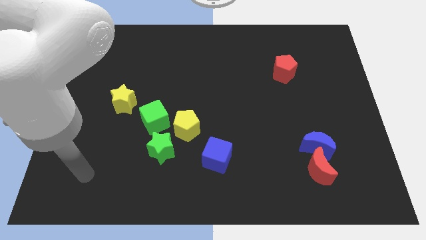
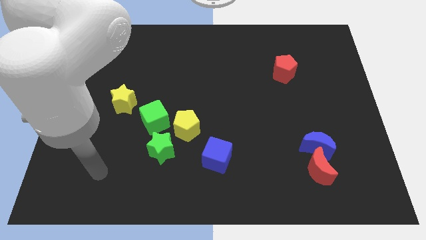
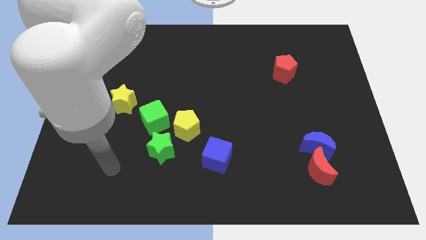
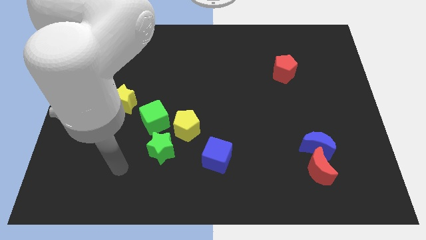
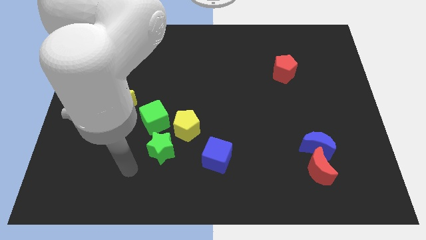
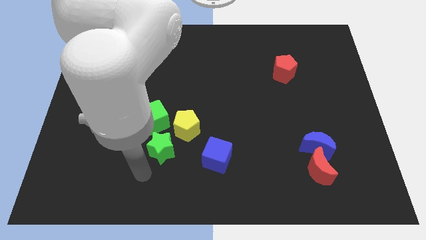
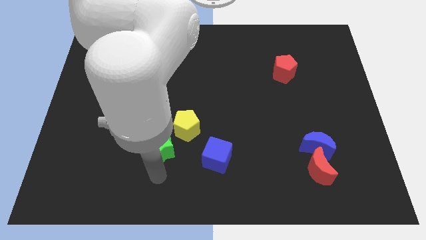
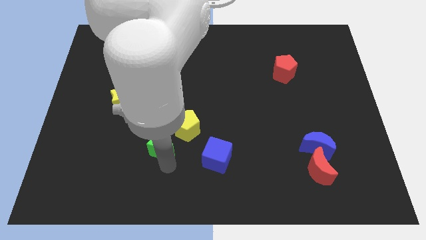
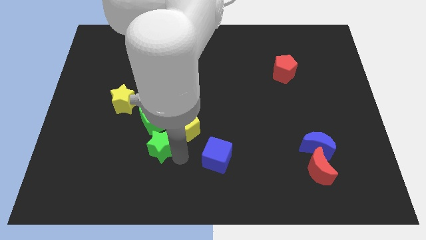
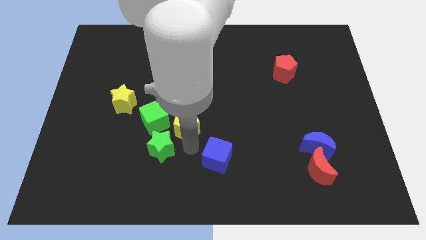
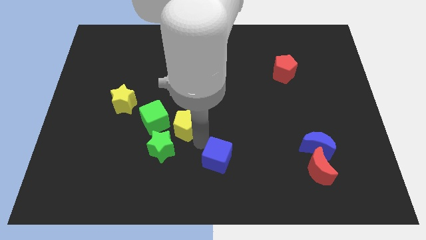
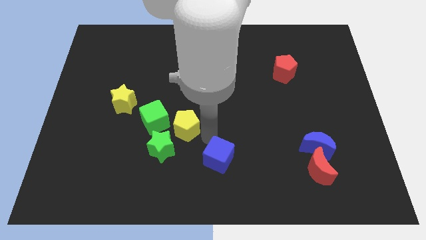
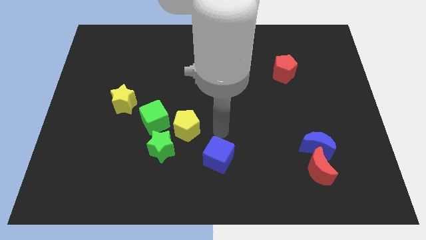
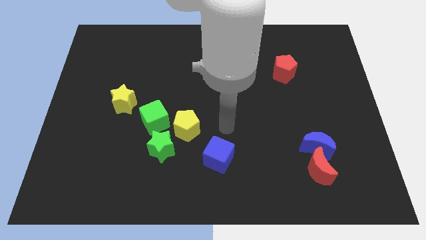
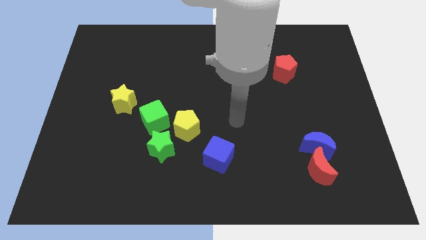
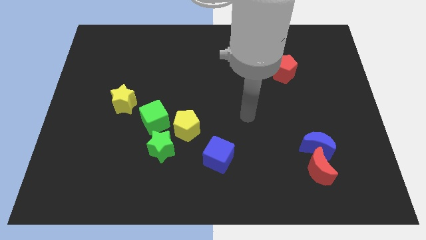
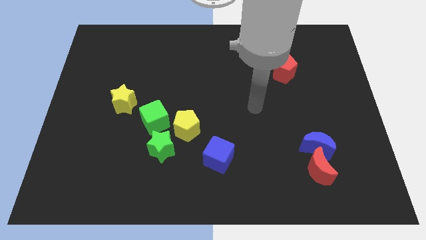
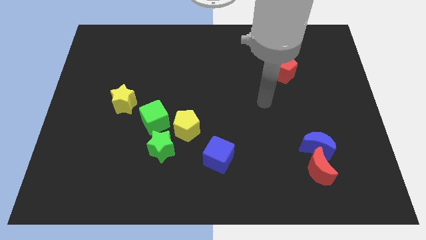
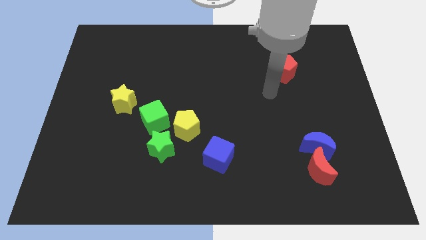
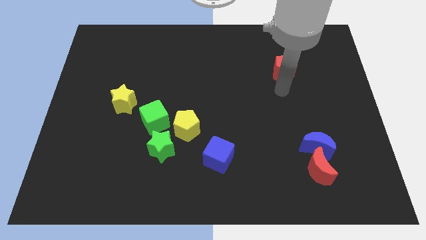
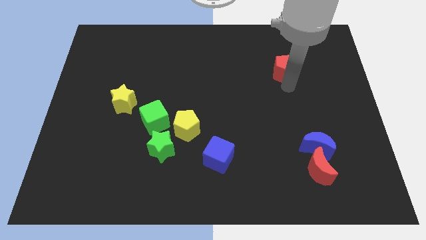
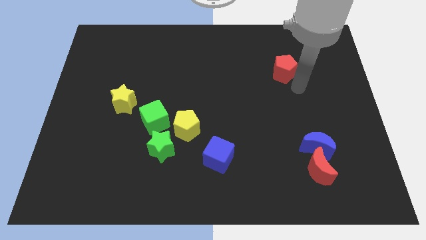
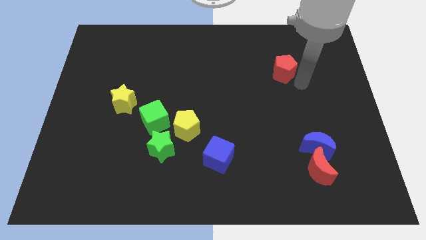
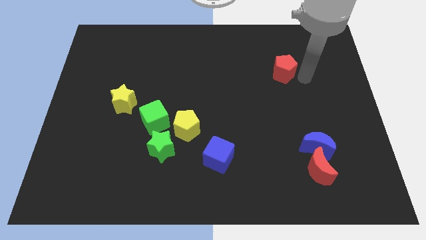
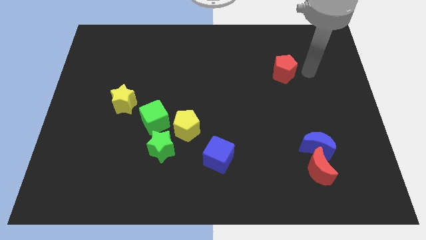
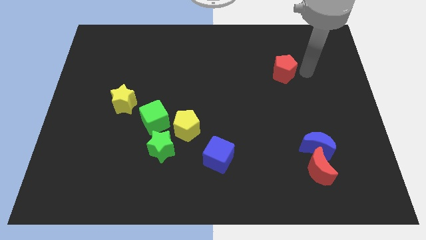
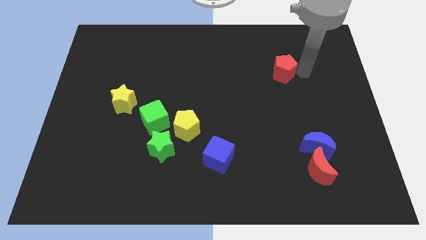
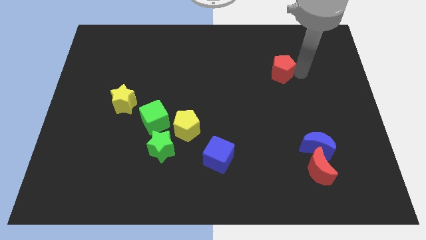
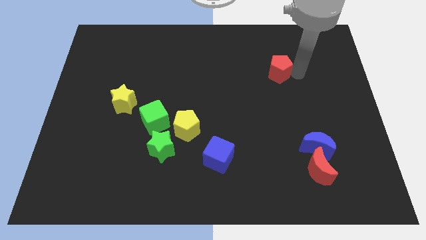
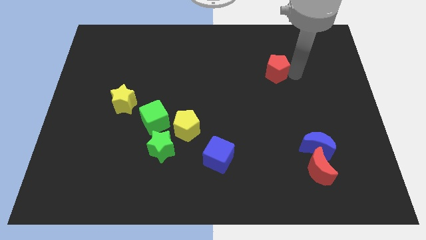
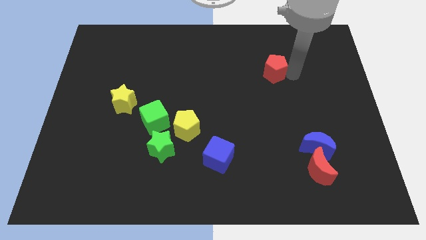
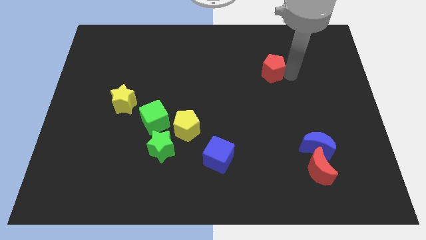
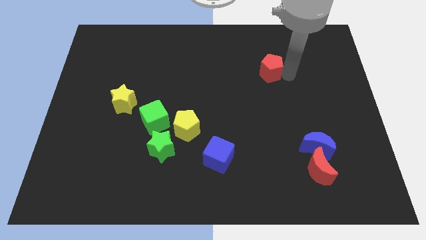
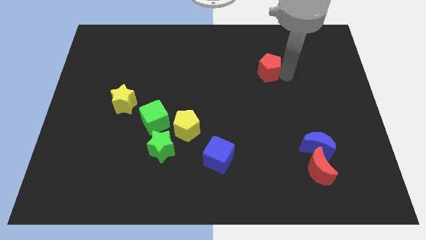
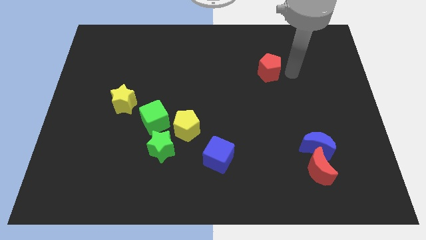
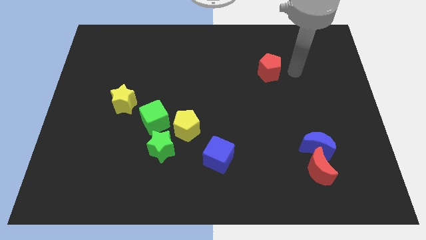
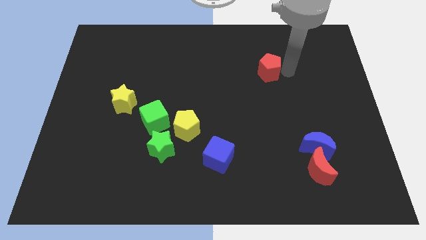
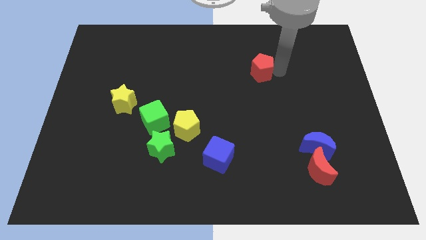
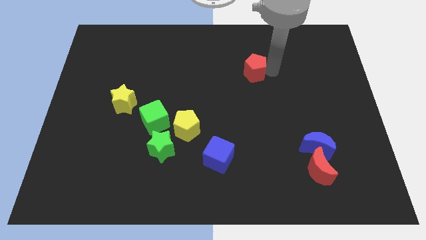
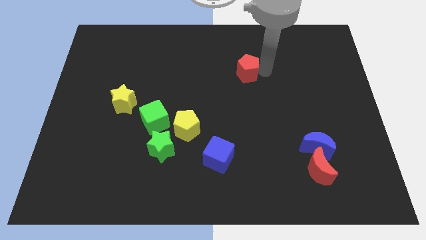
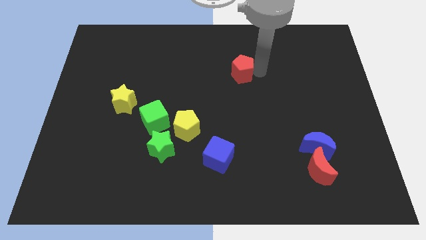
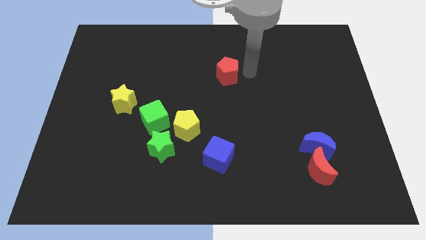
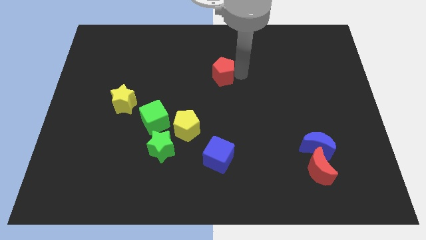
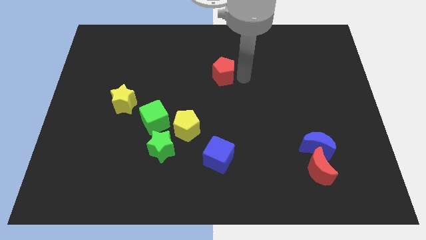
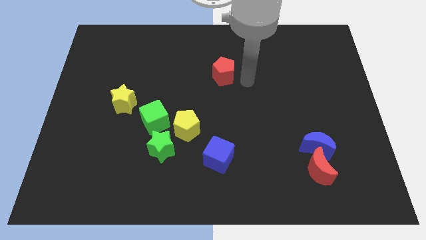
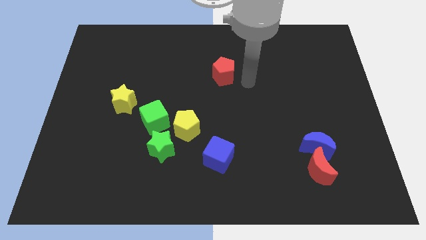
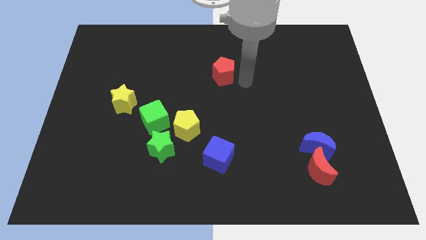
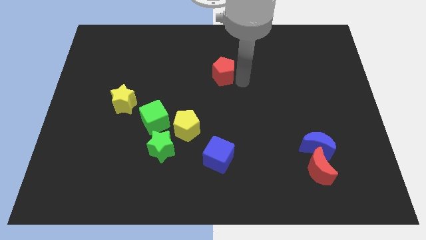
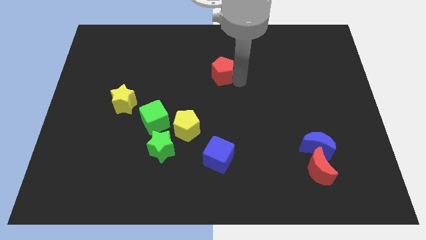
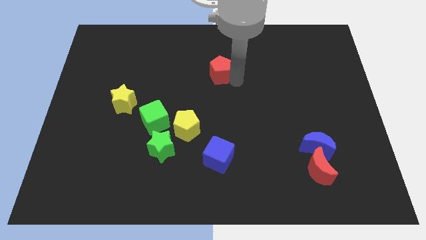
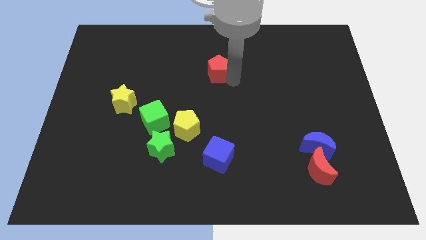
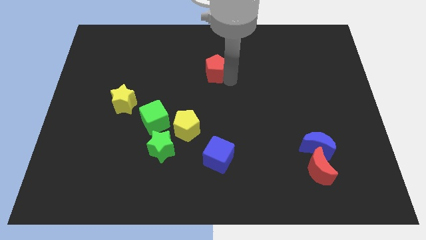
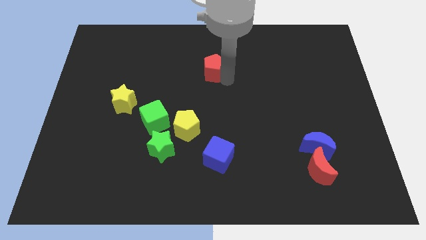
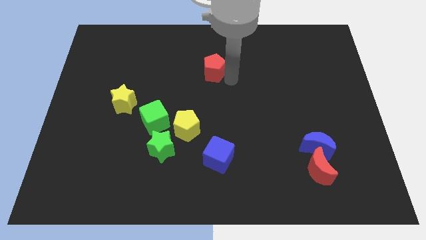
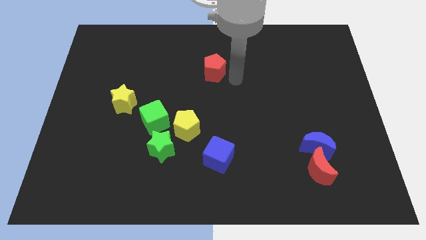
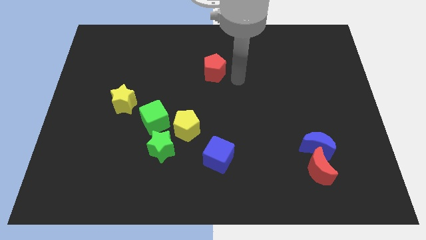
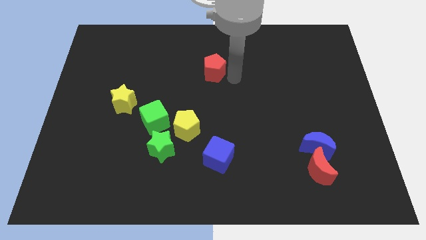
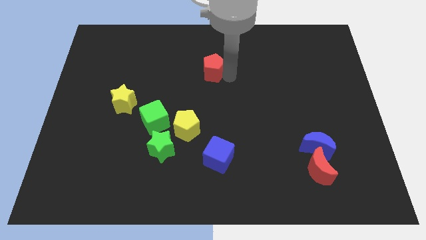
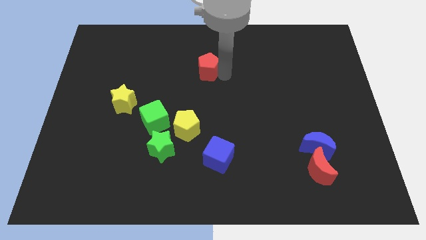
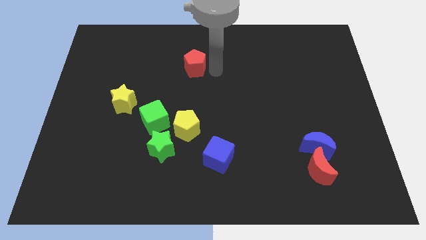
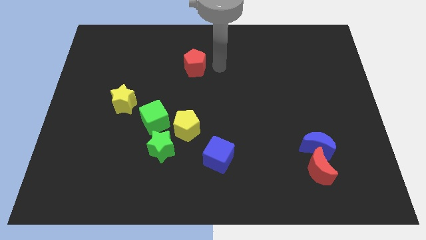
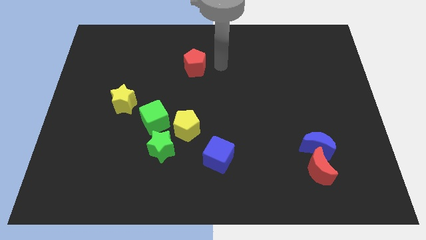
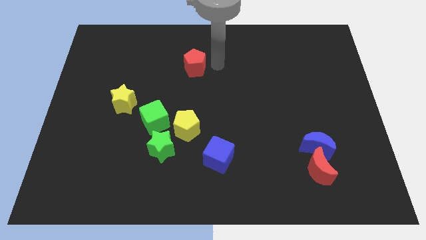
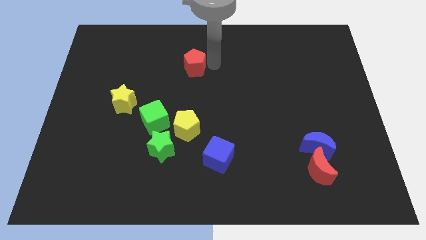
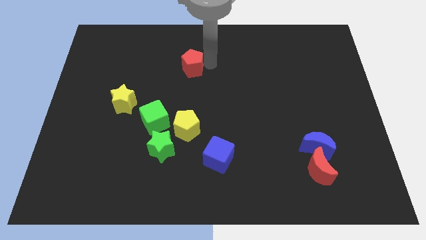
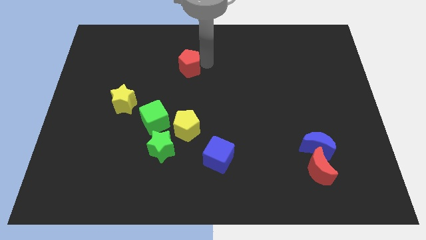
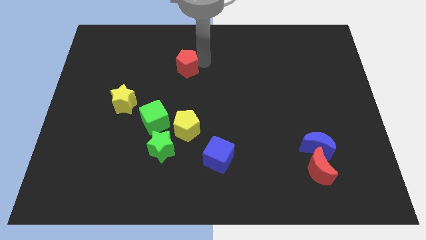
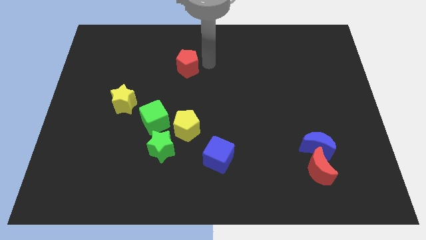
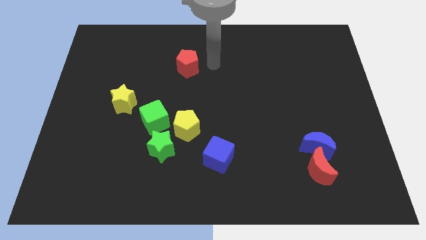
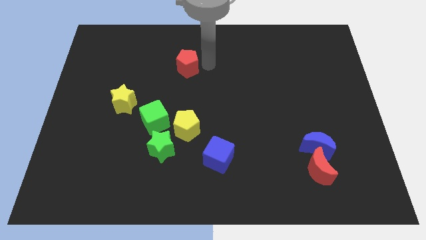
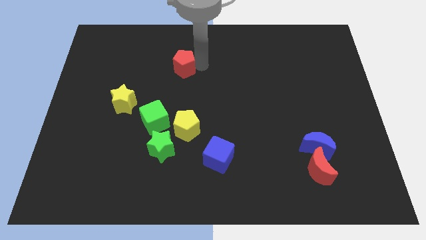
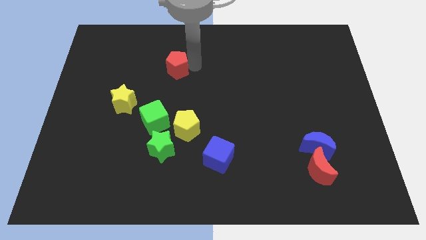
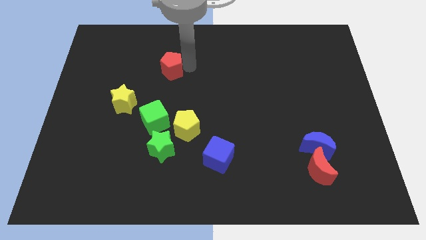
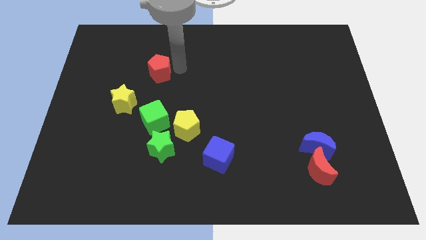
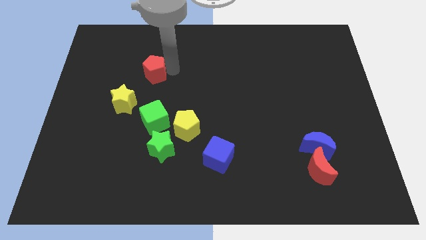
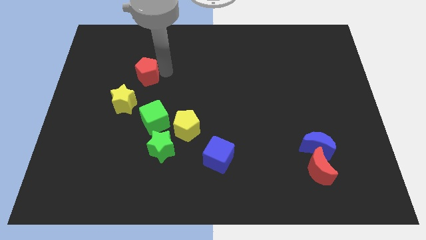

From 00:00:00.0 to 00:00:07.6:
move the red pentagon to the top side of the yellow star
